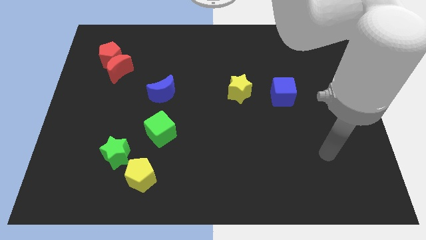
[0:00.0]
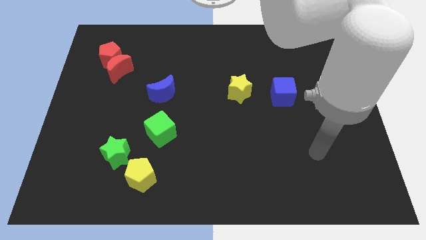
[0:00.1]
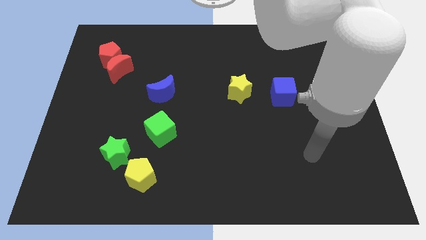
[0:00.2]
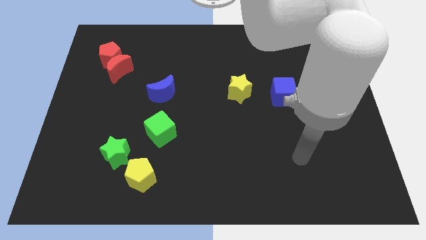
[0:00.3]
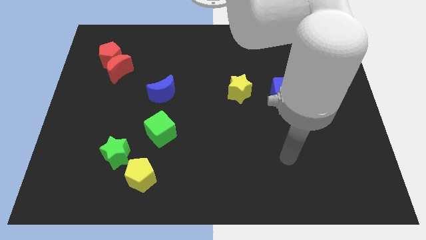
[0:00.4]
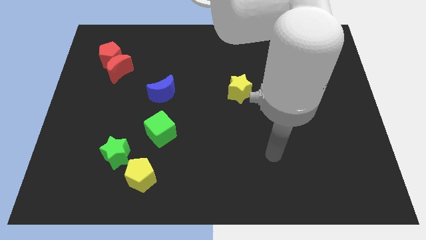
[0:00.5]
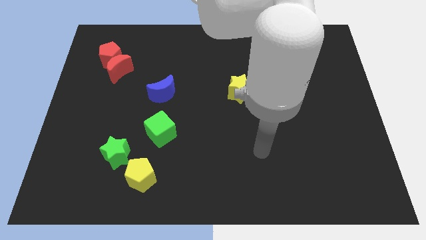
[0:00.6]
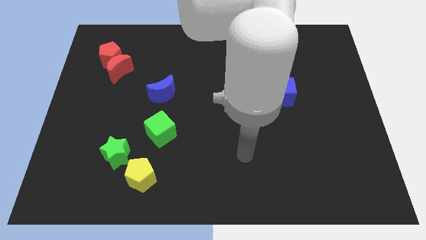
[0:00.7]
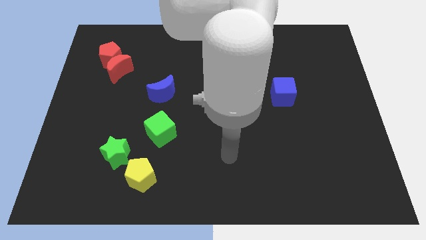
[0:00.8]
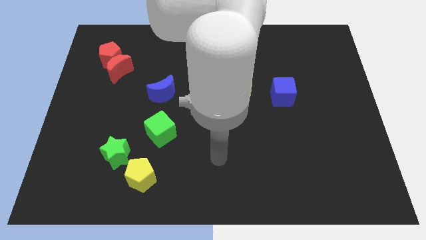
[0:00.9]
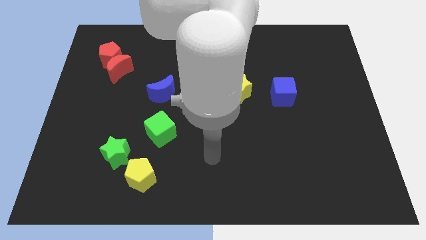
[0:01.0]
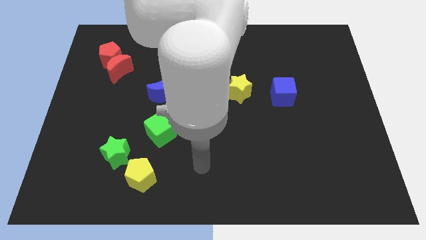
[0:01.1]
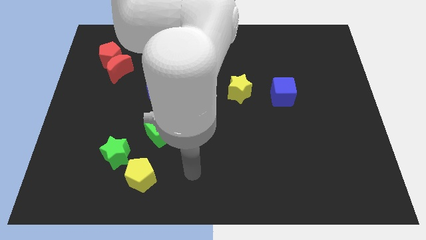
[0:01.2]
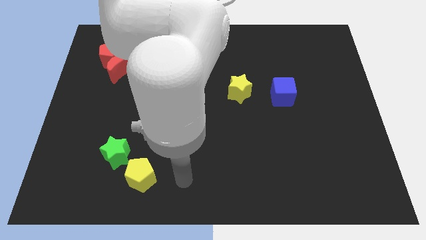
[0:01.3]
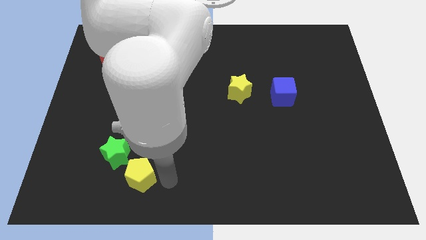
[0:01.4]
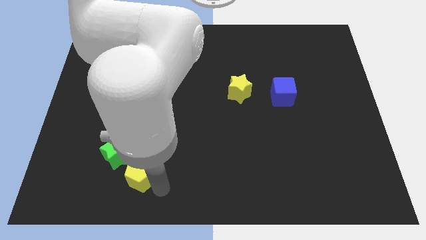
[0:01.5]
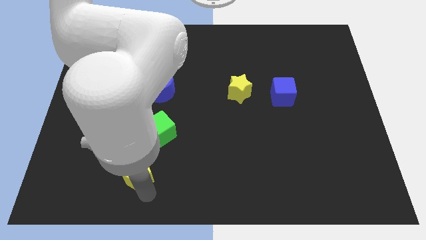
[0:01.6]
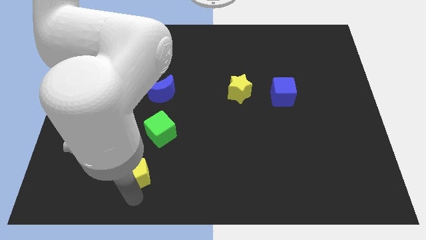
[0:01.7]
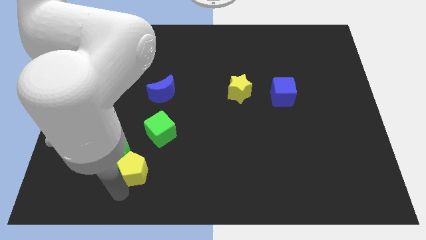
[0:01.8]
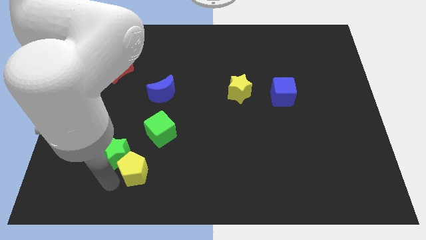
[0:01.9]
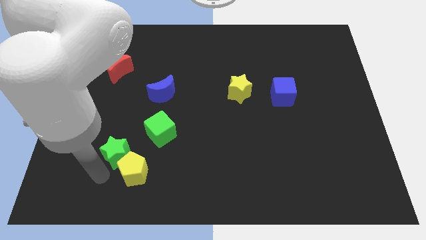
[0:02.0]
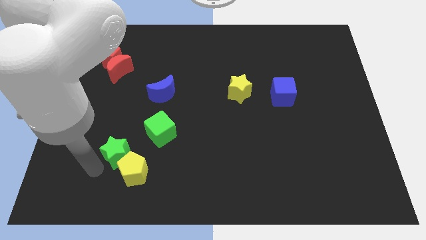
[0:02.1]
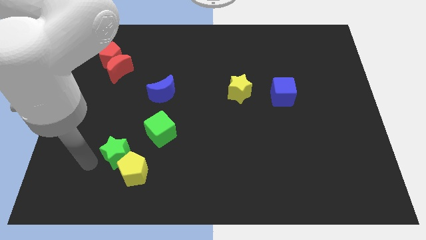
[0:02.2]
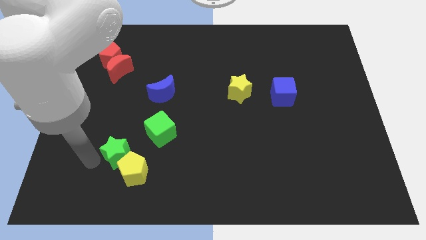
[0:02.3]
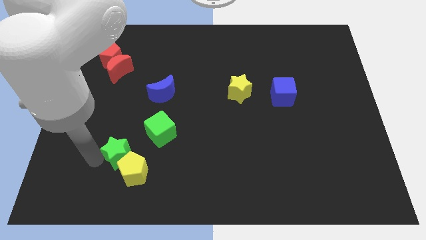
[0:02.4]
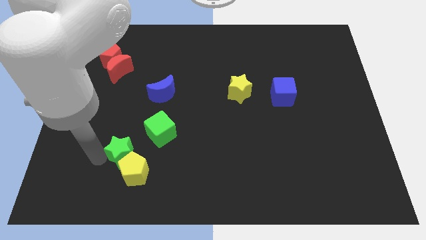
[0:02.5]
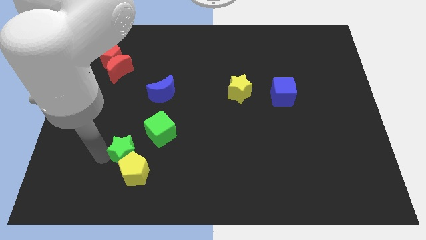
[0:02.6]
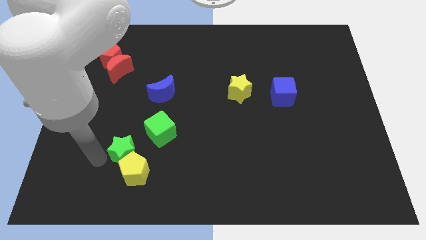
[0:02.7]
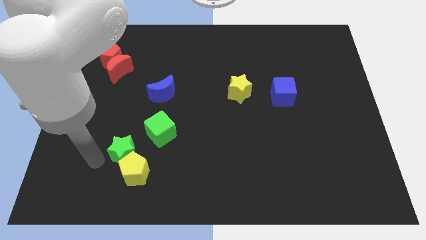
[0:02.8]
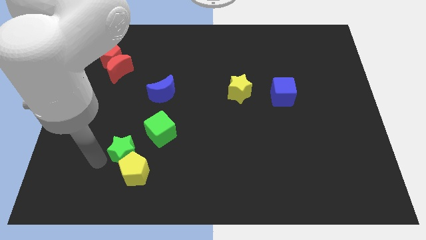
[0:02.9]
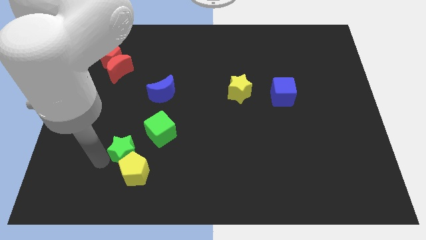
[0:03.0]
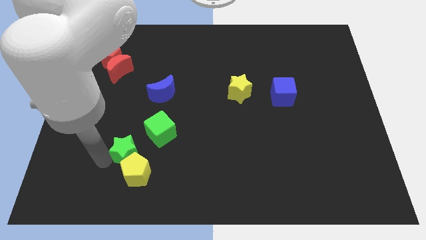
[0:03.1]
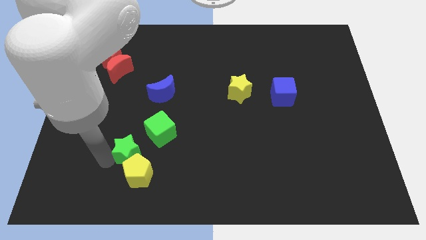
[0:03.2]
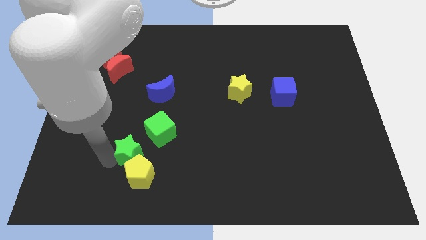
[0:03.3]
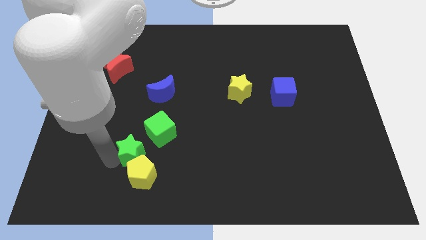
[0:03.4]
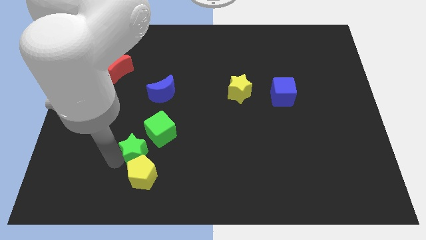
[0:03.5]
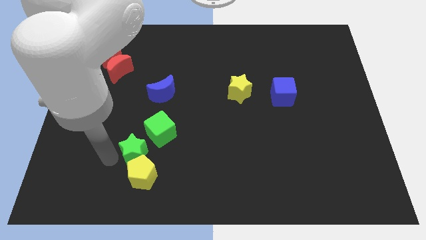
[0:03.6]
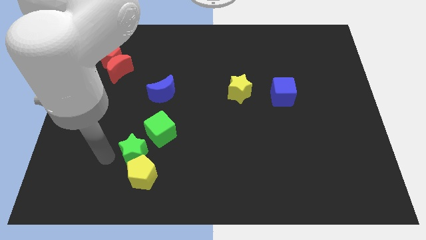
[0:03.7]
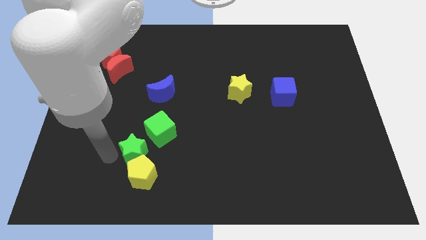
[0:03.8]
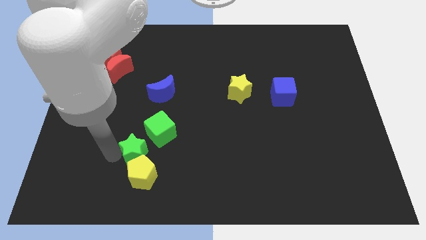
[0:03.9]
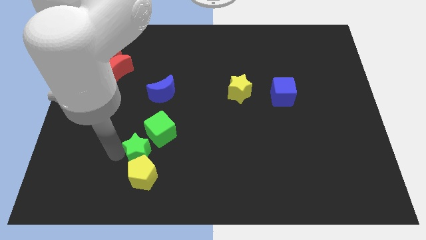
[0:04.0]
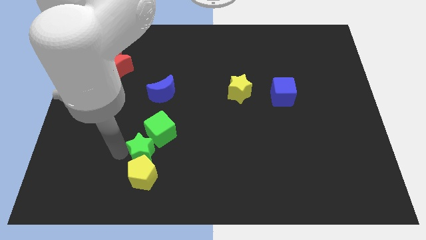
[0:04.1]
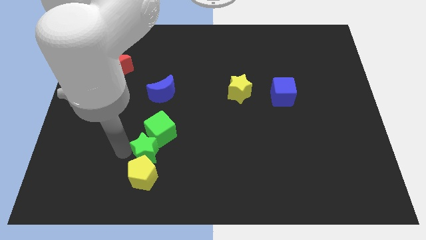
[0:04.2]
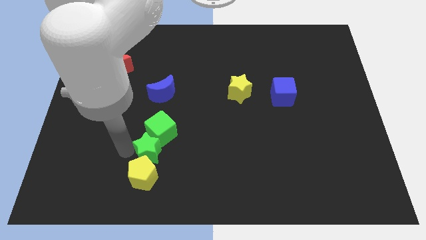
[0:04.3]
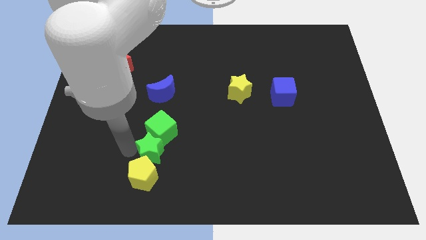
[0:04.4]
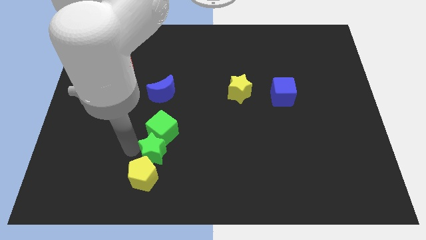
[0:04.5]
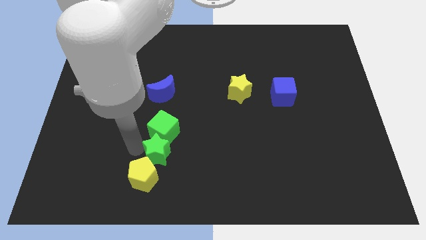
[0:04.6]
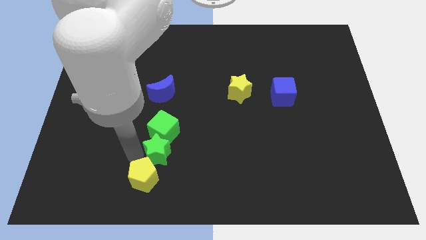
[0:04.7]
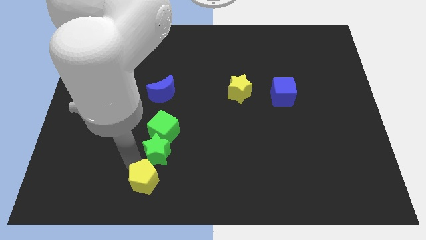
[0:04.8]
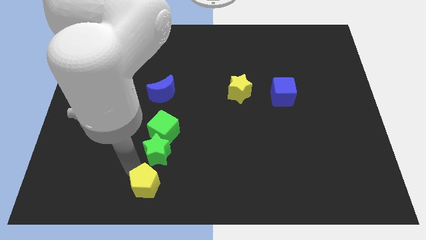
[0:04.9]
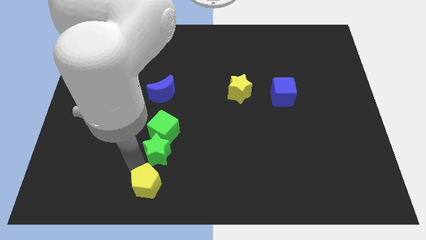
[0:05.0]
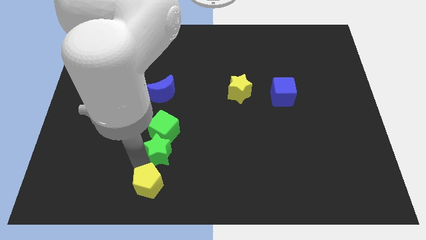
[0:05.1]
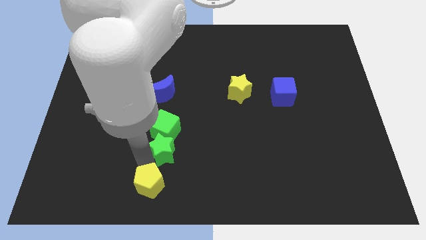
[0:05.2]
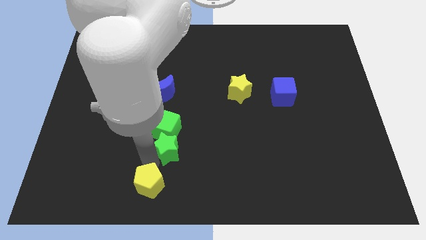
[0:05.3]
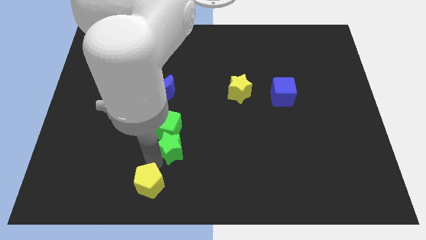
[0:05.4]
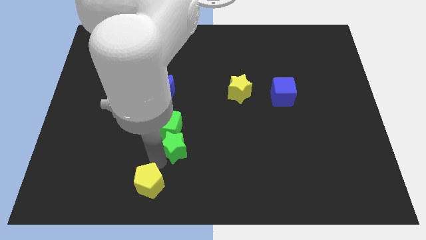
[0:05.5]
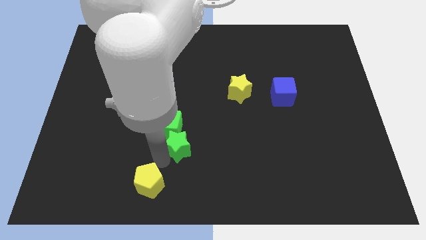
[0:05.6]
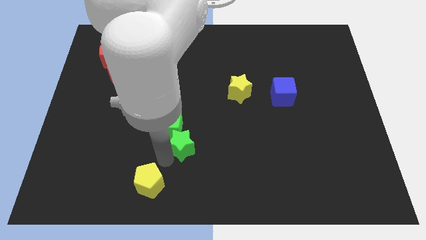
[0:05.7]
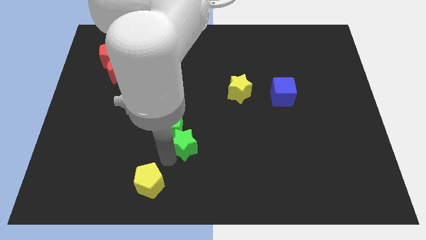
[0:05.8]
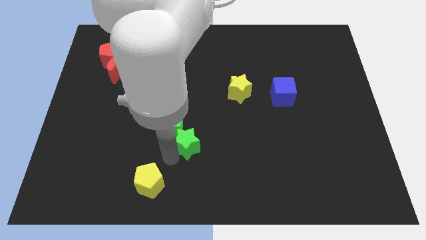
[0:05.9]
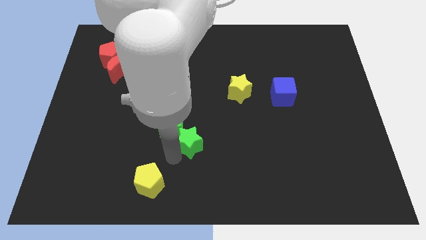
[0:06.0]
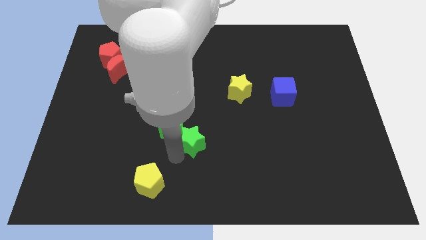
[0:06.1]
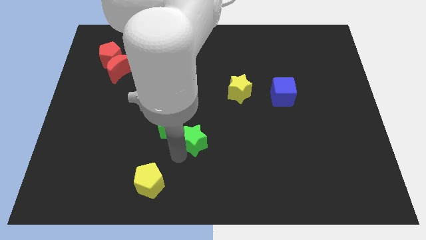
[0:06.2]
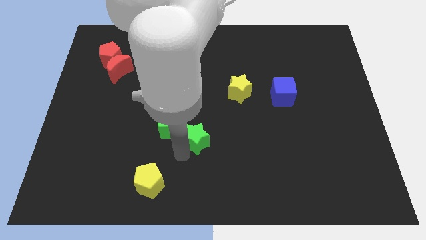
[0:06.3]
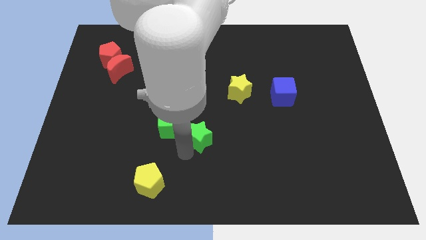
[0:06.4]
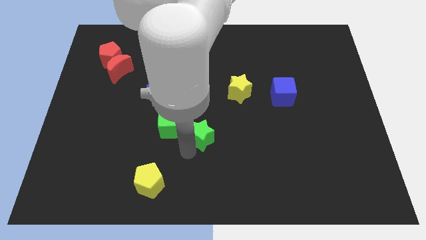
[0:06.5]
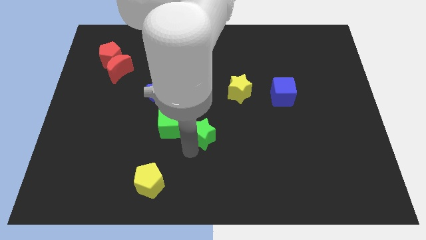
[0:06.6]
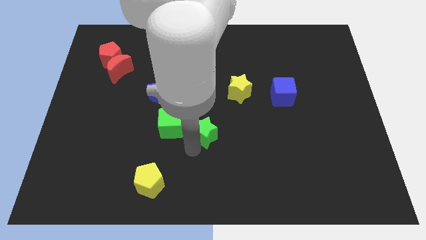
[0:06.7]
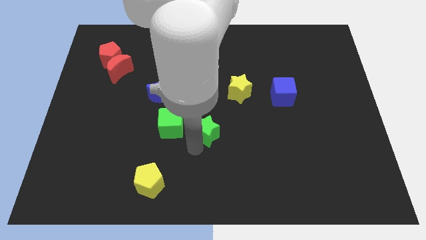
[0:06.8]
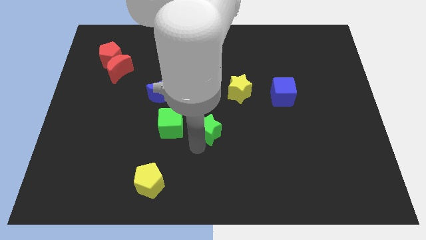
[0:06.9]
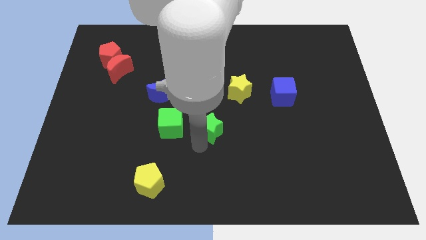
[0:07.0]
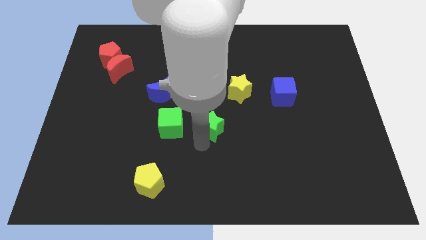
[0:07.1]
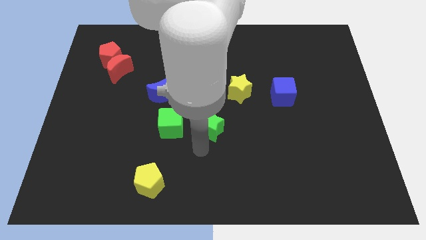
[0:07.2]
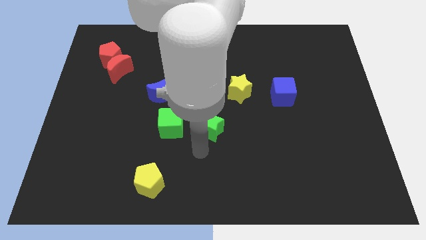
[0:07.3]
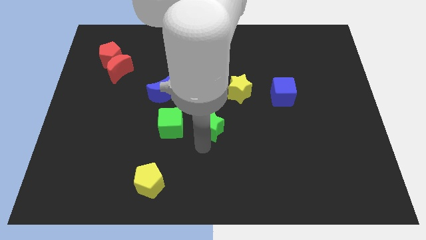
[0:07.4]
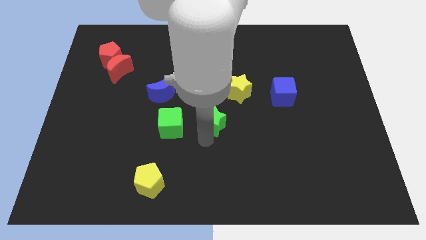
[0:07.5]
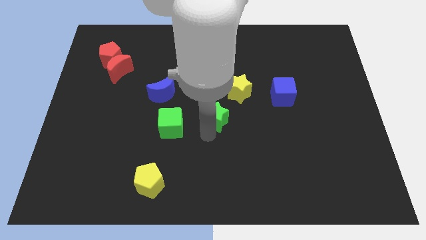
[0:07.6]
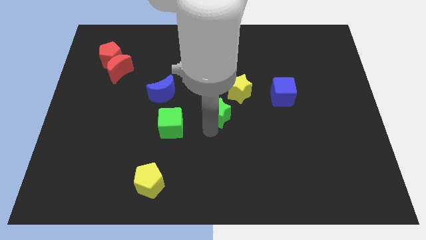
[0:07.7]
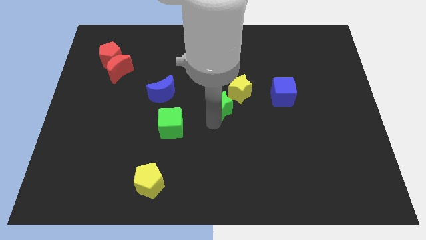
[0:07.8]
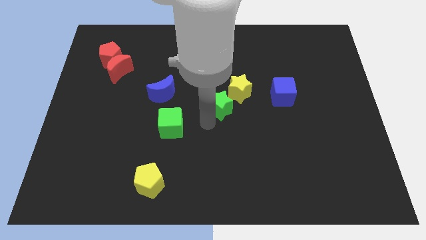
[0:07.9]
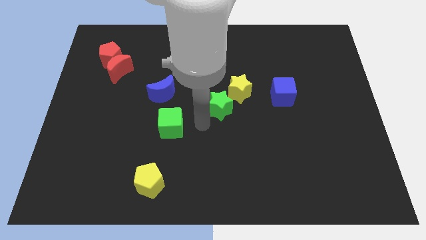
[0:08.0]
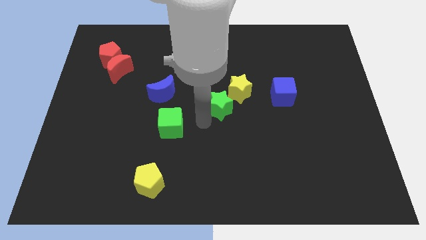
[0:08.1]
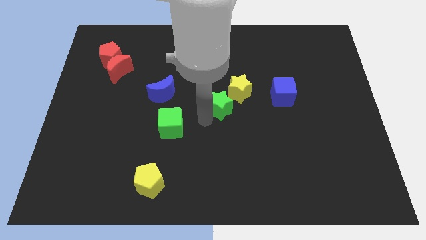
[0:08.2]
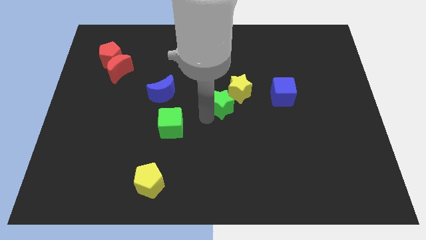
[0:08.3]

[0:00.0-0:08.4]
push the green star close to the yellow star
